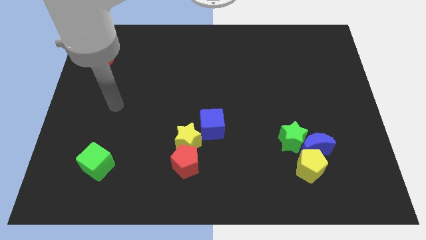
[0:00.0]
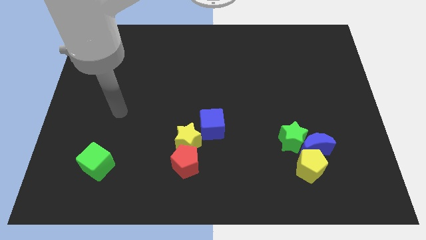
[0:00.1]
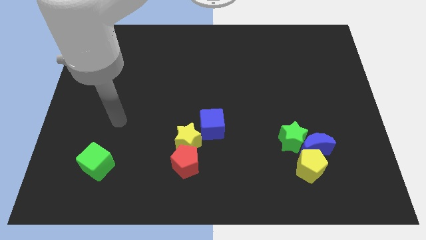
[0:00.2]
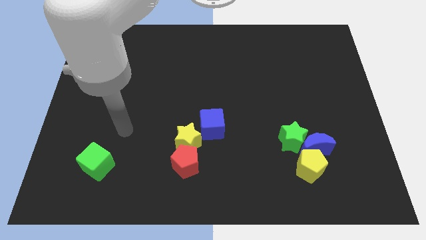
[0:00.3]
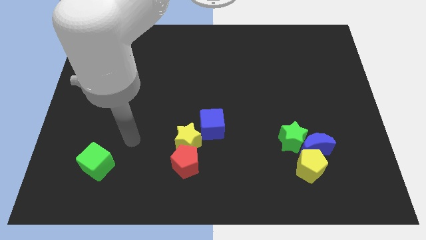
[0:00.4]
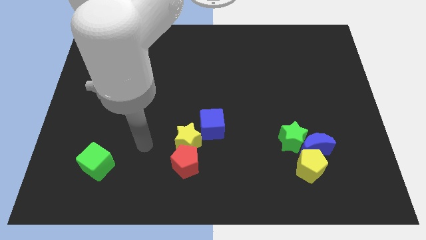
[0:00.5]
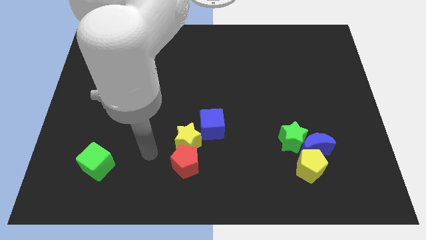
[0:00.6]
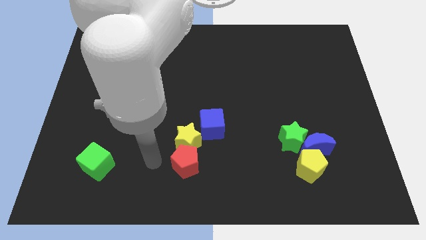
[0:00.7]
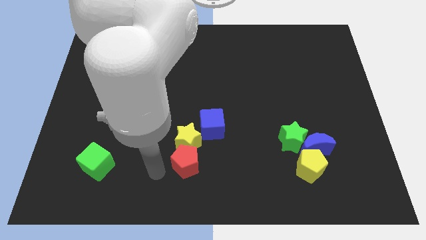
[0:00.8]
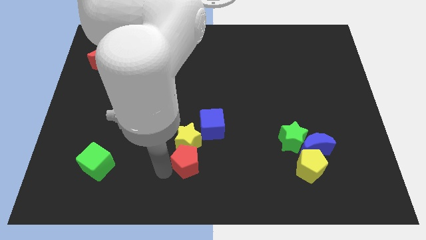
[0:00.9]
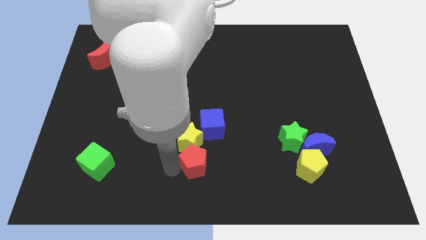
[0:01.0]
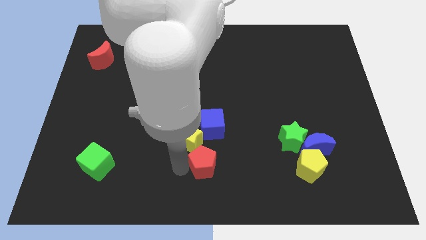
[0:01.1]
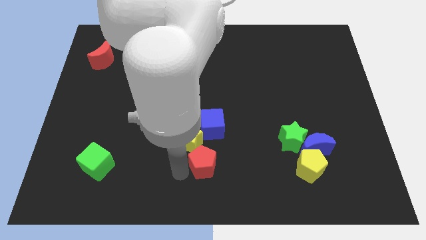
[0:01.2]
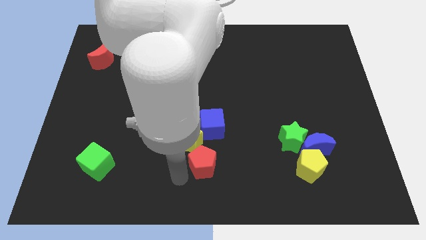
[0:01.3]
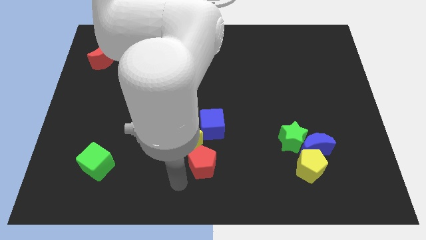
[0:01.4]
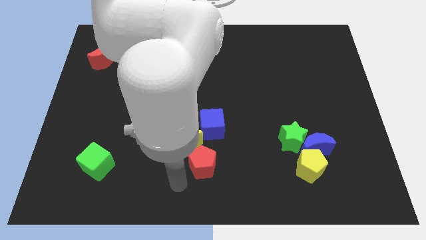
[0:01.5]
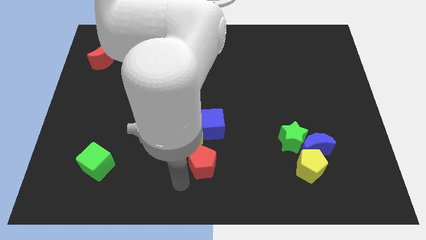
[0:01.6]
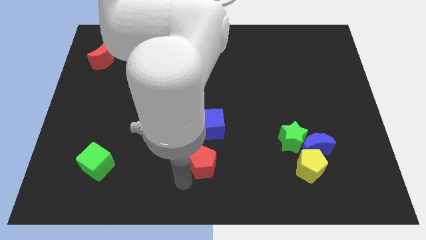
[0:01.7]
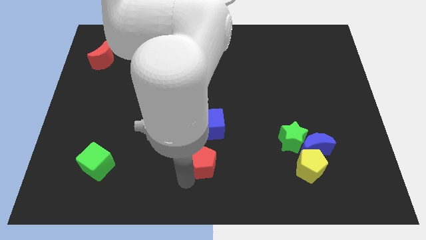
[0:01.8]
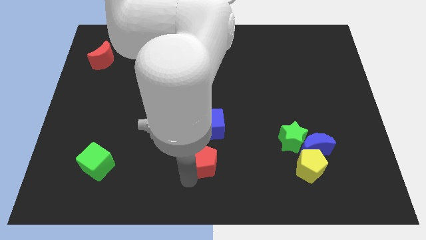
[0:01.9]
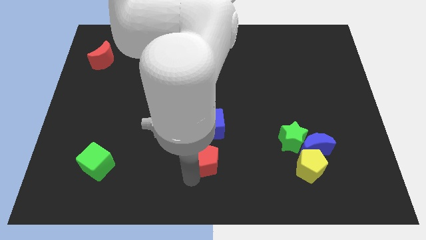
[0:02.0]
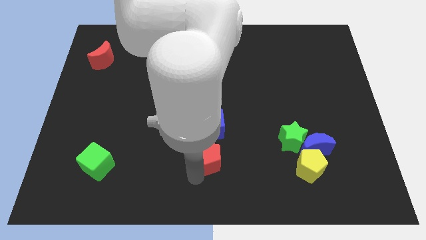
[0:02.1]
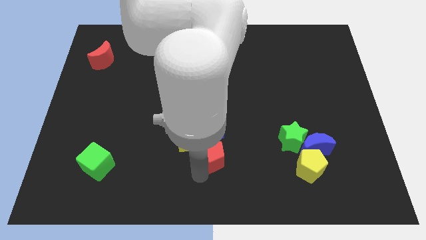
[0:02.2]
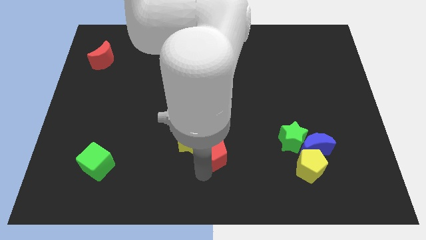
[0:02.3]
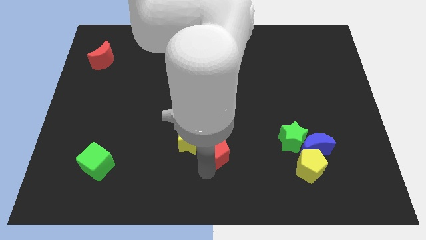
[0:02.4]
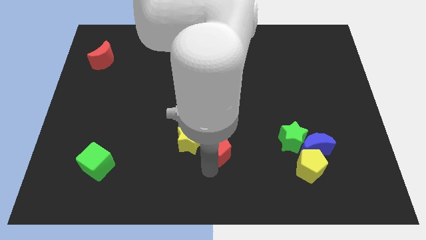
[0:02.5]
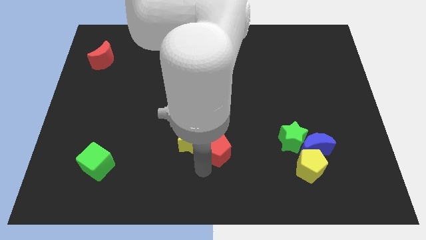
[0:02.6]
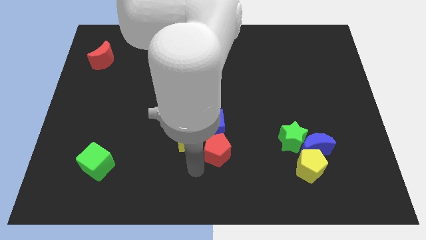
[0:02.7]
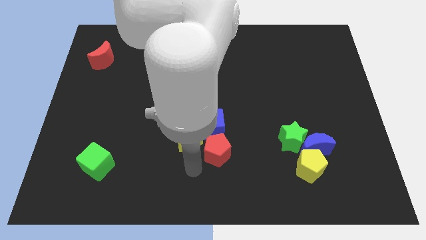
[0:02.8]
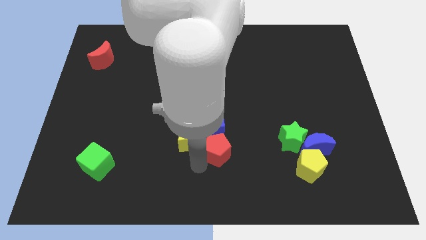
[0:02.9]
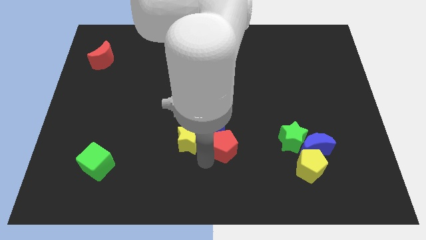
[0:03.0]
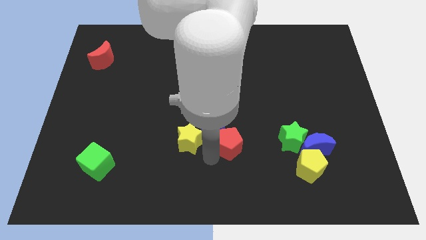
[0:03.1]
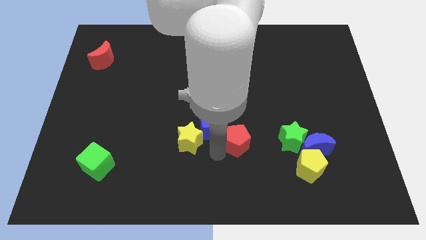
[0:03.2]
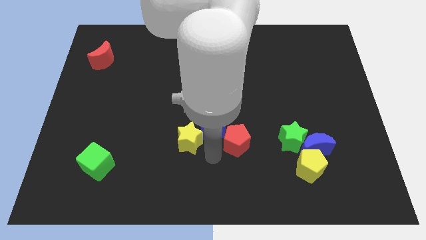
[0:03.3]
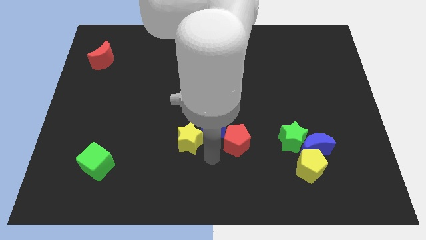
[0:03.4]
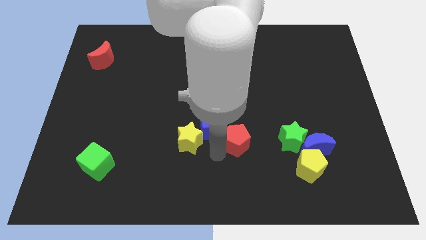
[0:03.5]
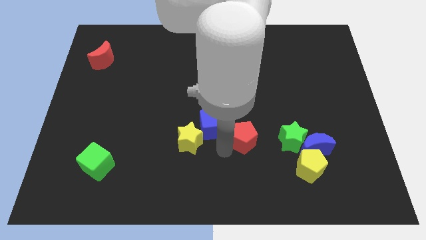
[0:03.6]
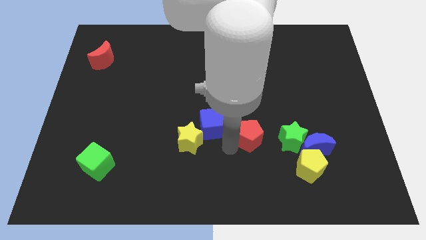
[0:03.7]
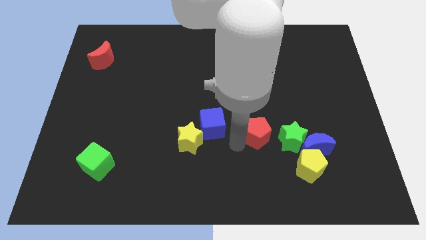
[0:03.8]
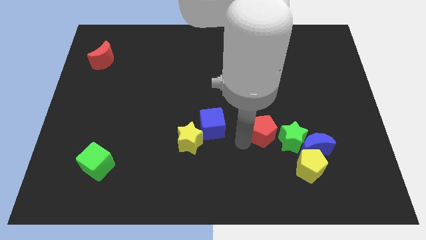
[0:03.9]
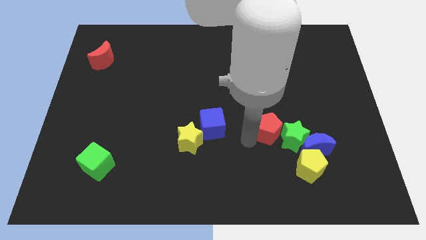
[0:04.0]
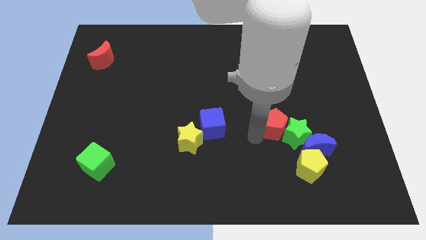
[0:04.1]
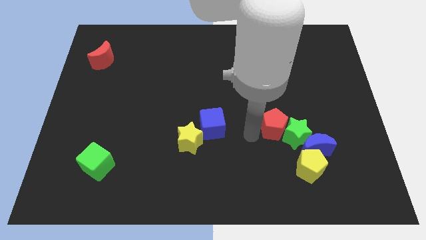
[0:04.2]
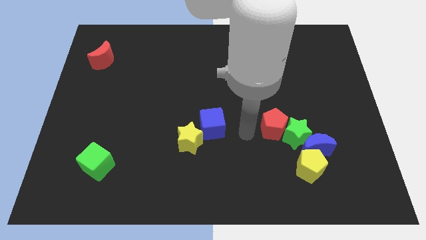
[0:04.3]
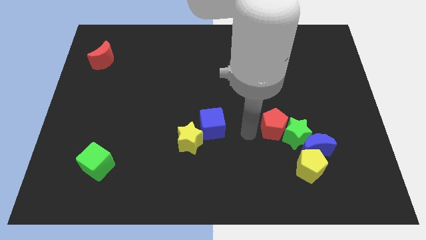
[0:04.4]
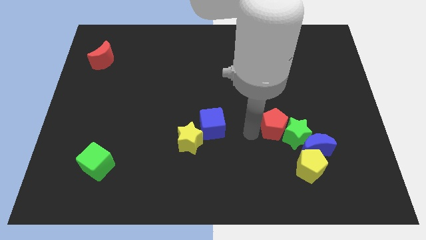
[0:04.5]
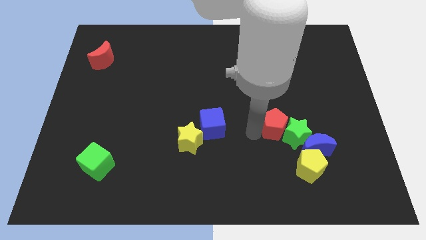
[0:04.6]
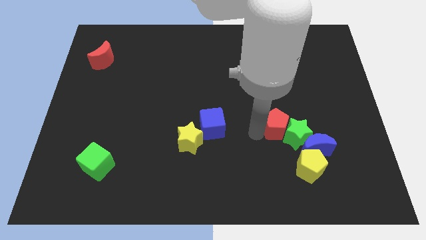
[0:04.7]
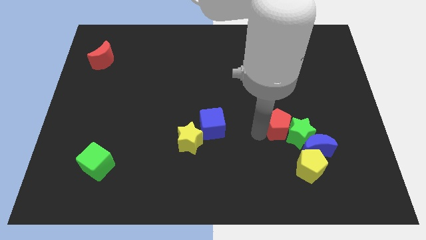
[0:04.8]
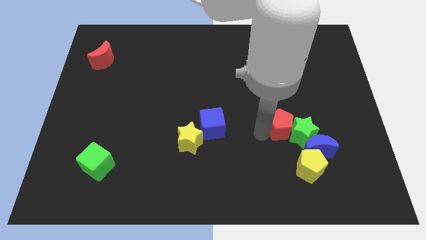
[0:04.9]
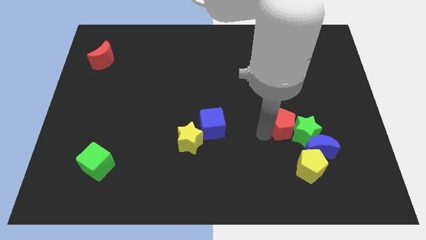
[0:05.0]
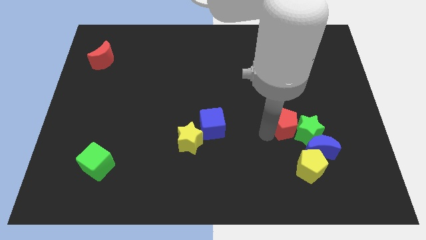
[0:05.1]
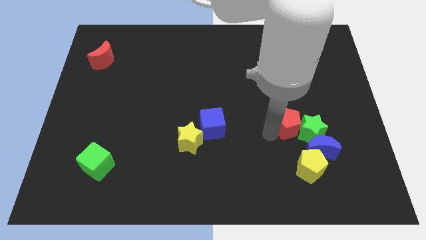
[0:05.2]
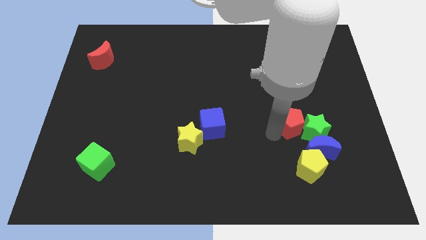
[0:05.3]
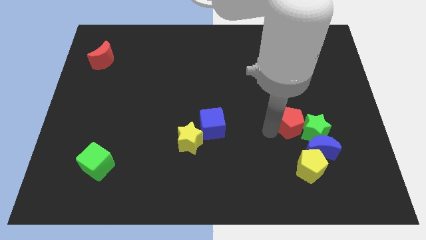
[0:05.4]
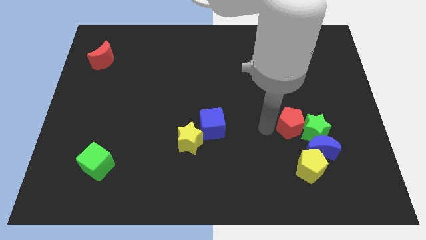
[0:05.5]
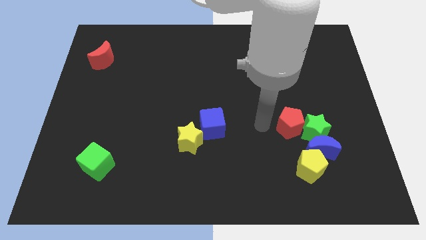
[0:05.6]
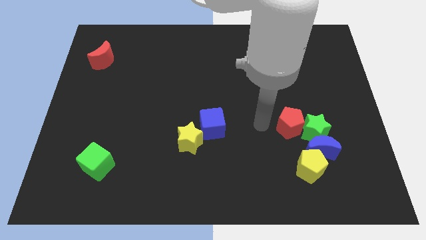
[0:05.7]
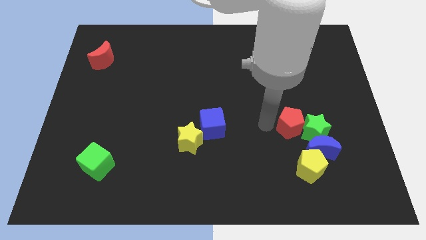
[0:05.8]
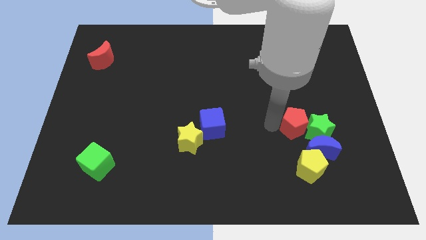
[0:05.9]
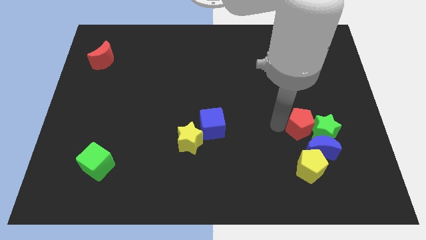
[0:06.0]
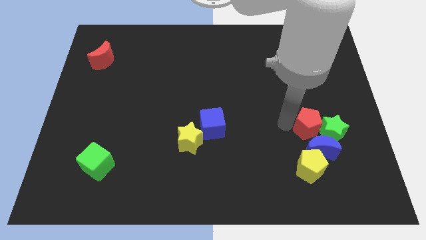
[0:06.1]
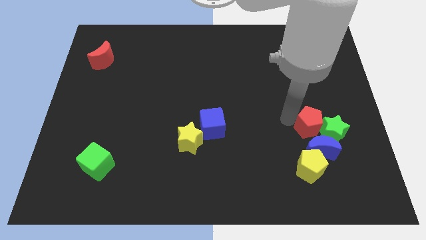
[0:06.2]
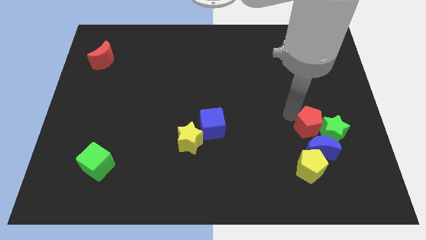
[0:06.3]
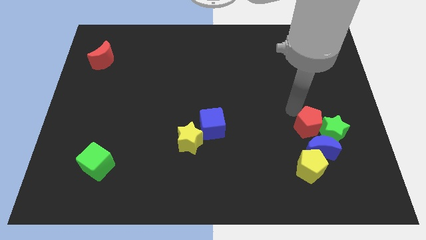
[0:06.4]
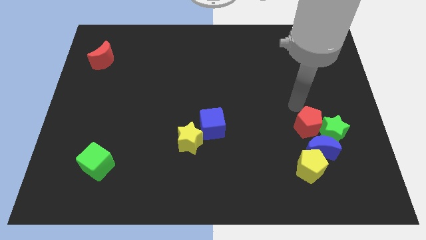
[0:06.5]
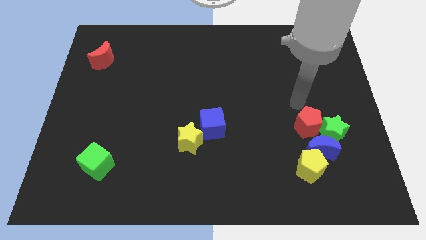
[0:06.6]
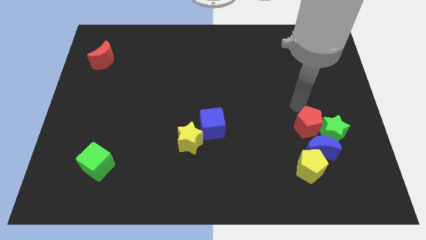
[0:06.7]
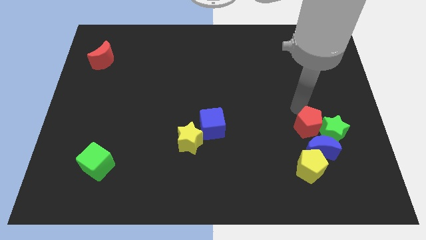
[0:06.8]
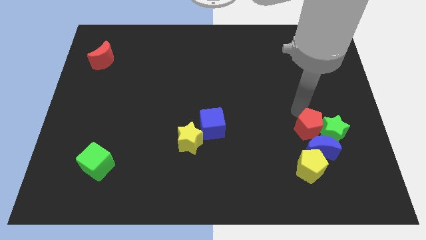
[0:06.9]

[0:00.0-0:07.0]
move the red pentagon towards the blue moon
